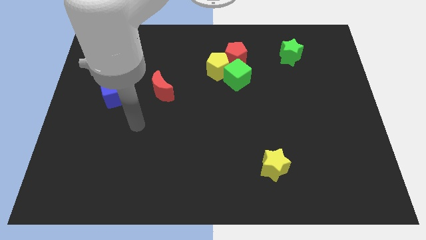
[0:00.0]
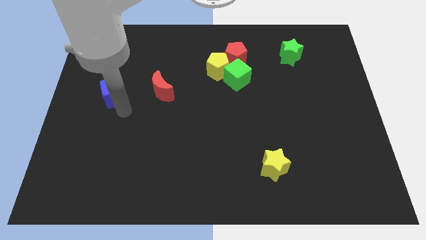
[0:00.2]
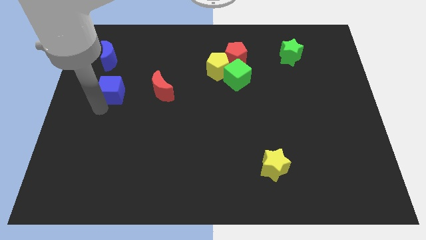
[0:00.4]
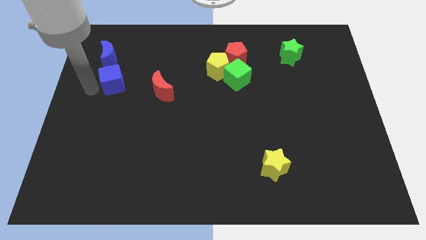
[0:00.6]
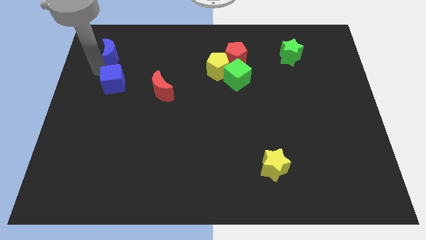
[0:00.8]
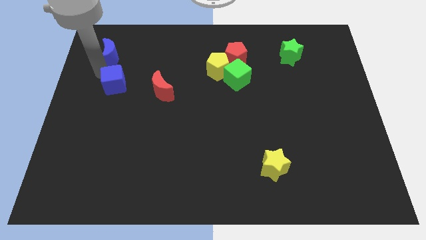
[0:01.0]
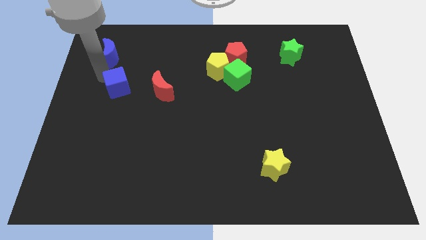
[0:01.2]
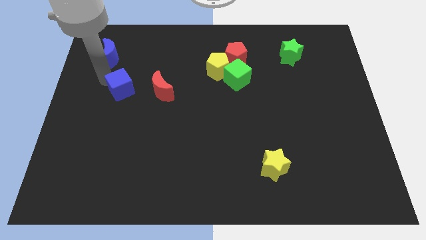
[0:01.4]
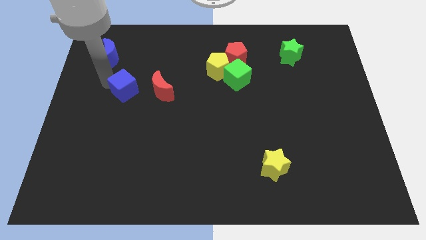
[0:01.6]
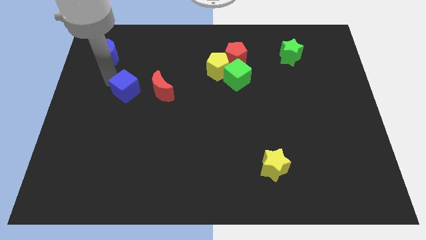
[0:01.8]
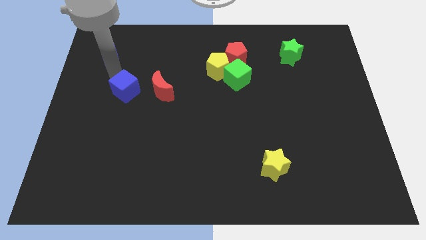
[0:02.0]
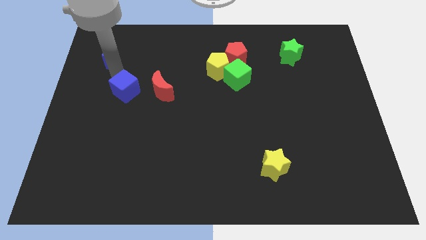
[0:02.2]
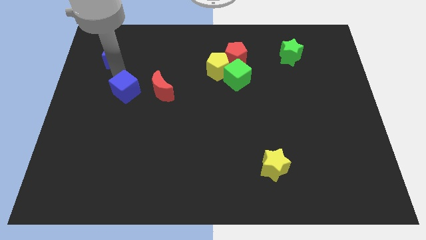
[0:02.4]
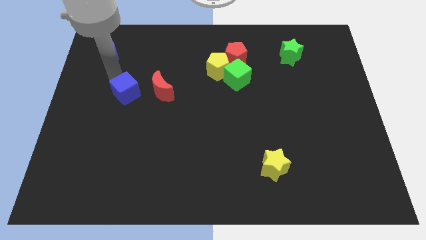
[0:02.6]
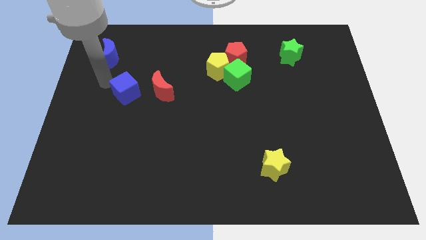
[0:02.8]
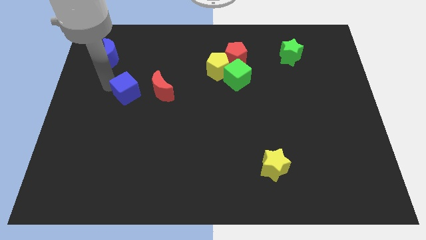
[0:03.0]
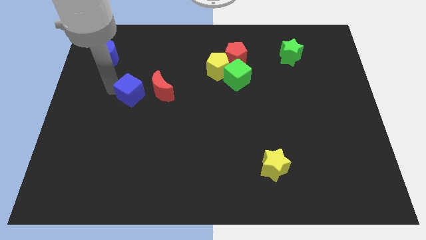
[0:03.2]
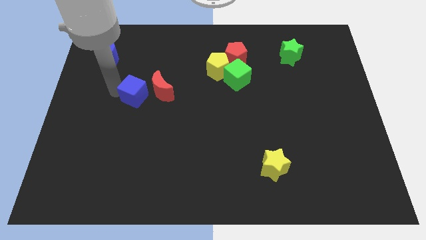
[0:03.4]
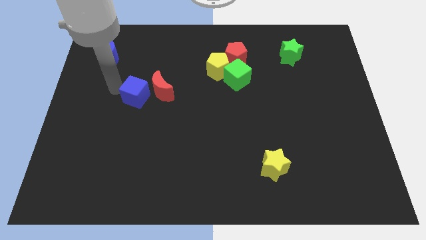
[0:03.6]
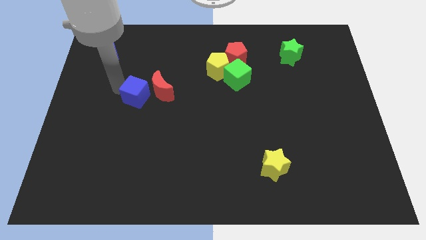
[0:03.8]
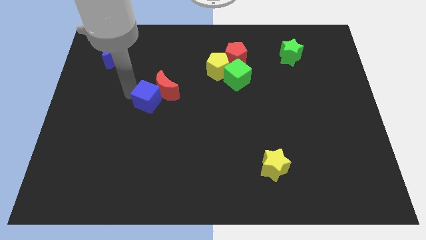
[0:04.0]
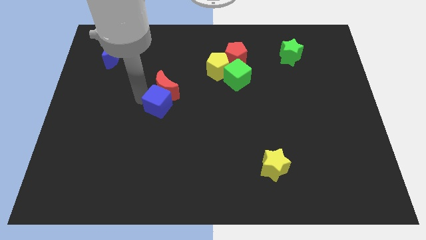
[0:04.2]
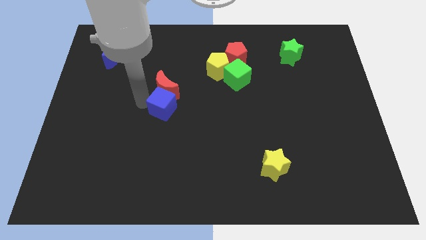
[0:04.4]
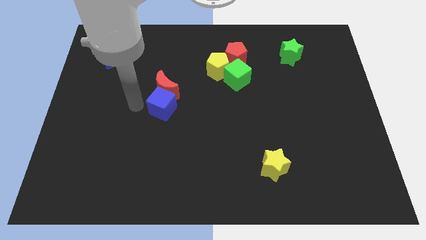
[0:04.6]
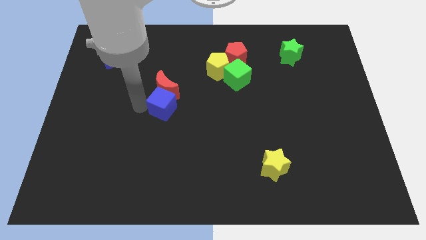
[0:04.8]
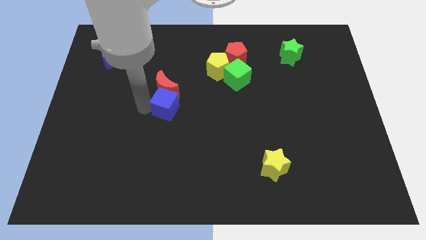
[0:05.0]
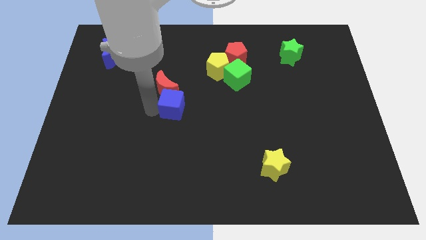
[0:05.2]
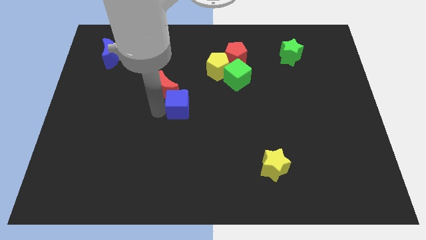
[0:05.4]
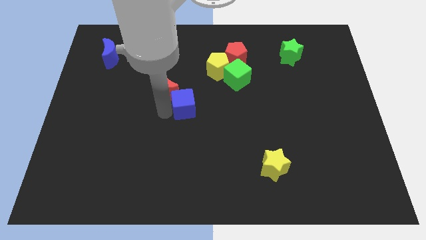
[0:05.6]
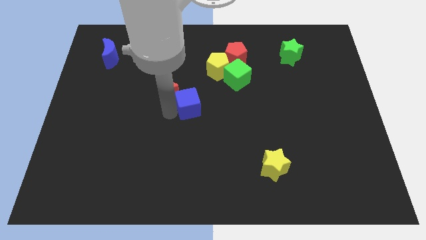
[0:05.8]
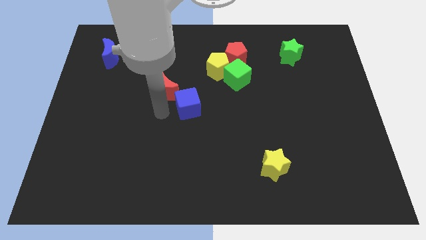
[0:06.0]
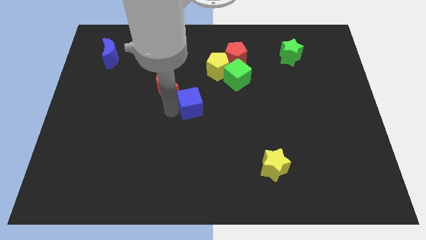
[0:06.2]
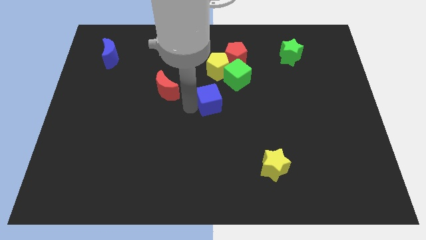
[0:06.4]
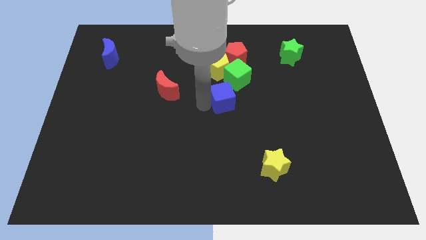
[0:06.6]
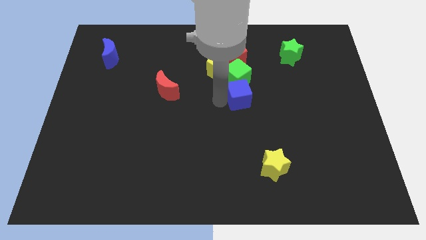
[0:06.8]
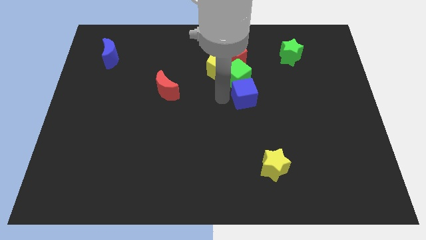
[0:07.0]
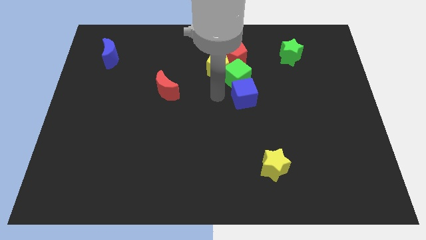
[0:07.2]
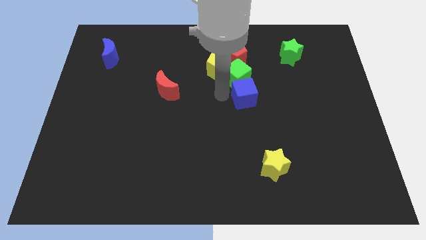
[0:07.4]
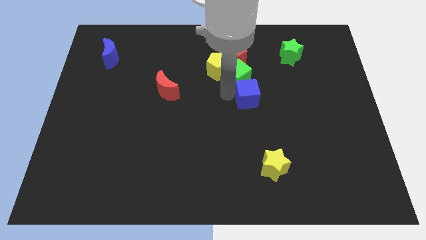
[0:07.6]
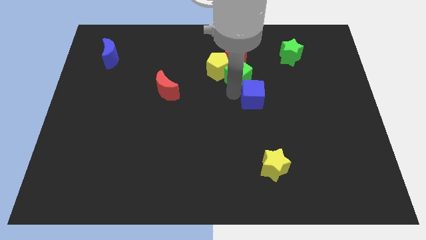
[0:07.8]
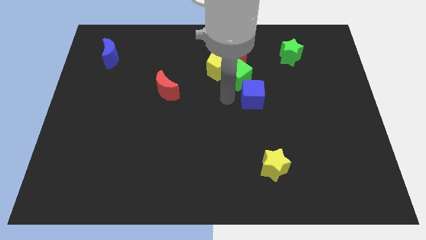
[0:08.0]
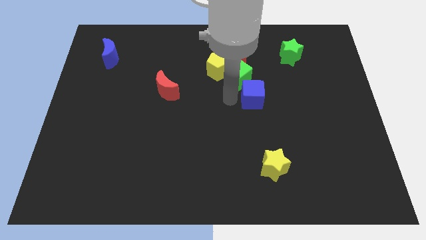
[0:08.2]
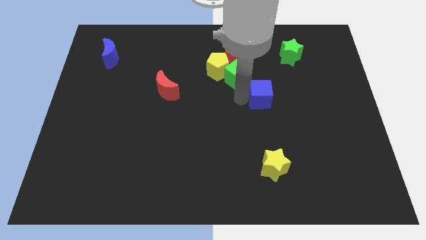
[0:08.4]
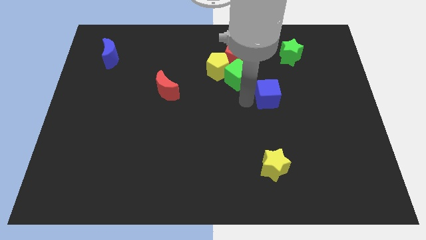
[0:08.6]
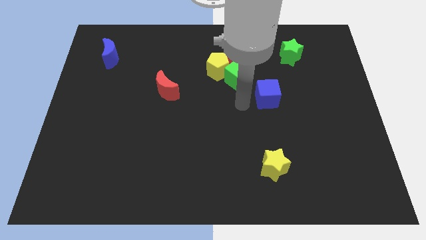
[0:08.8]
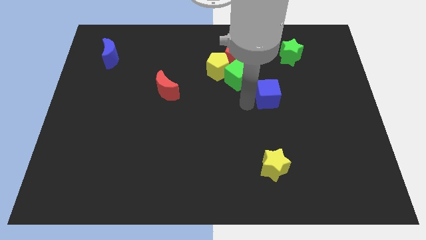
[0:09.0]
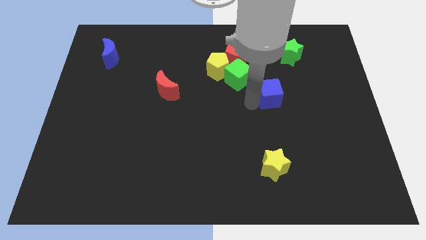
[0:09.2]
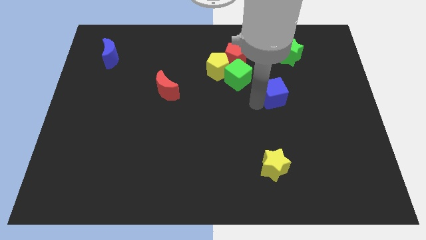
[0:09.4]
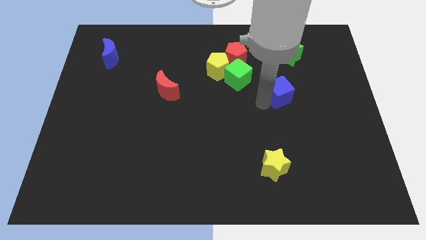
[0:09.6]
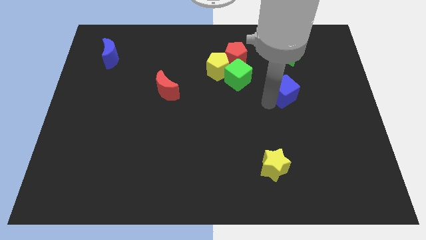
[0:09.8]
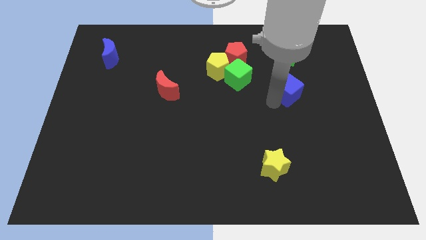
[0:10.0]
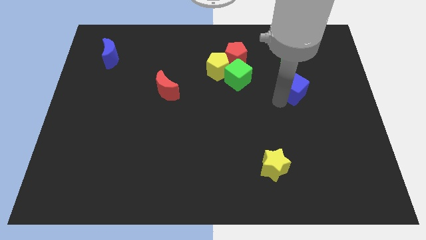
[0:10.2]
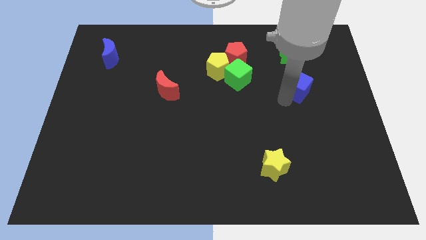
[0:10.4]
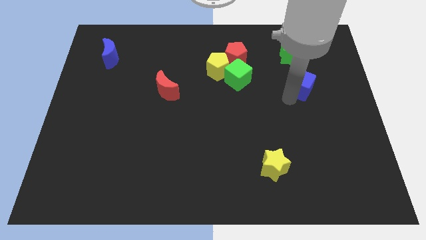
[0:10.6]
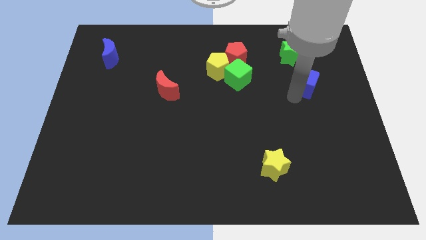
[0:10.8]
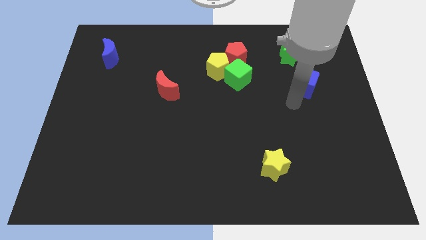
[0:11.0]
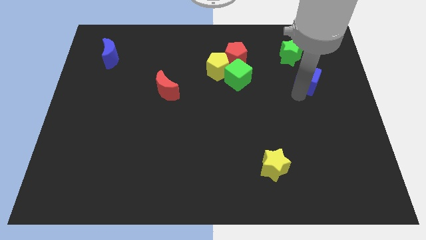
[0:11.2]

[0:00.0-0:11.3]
put the blue cube diagonally down and to the right of the green star

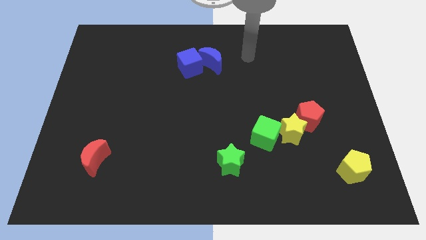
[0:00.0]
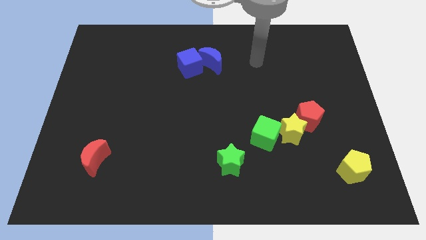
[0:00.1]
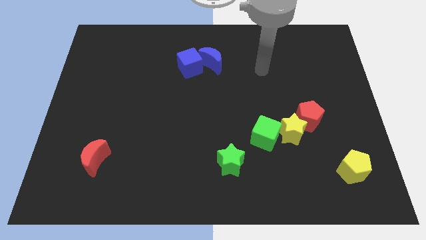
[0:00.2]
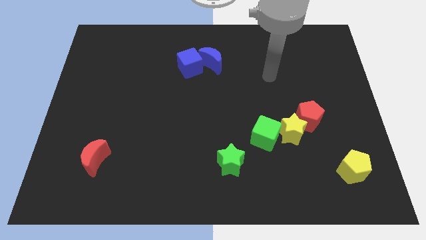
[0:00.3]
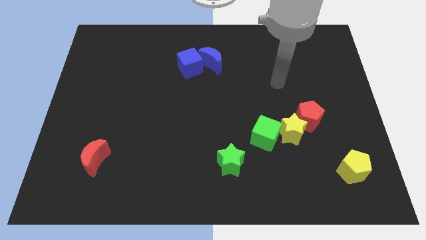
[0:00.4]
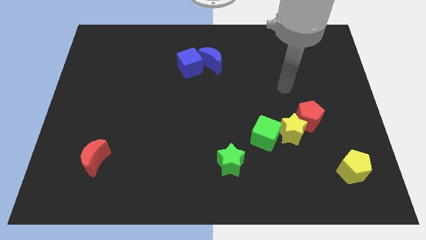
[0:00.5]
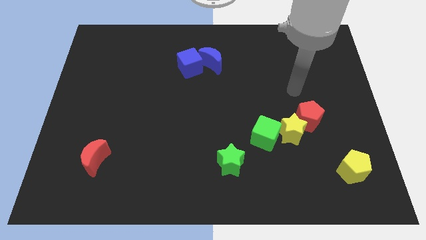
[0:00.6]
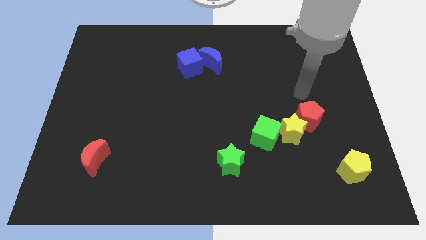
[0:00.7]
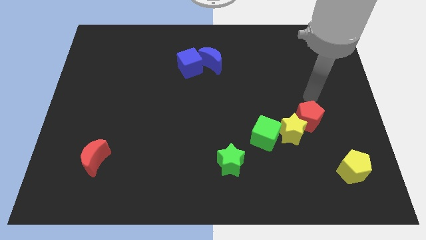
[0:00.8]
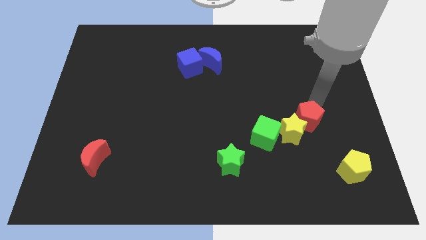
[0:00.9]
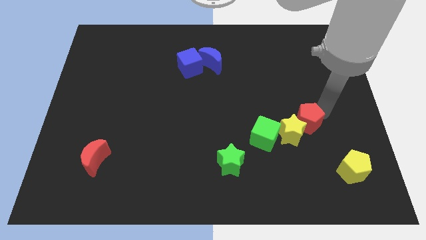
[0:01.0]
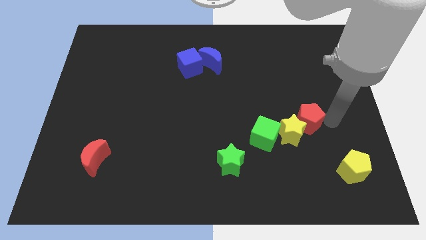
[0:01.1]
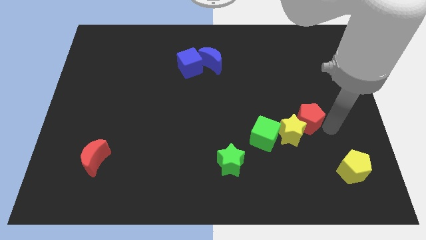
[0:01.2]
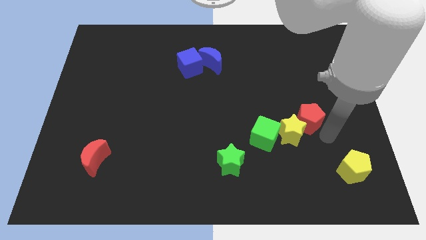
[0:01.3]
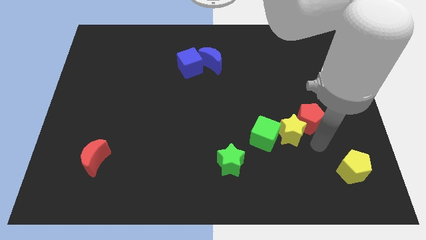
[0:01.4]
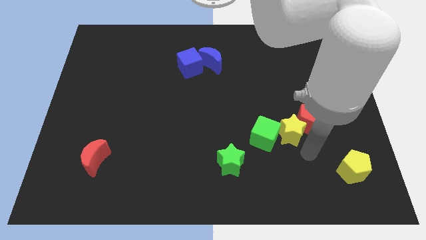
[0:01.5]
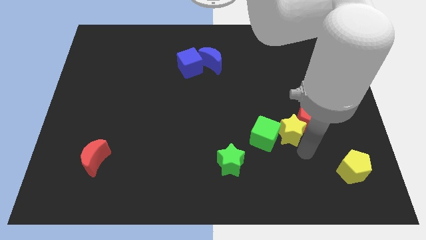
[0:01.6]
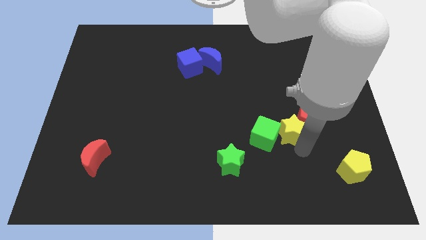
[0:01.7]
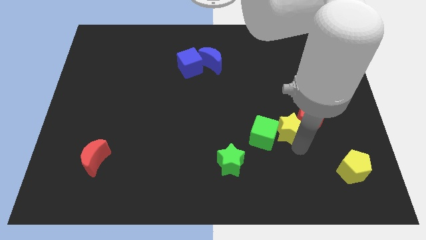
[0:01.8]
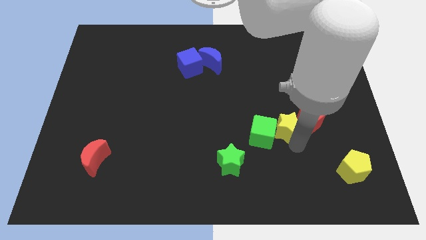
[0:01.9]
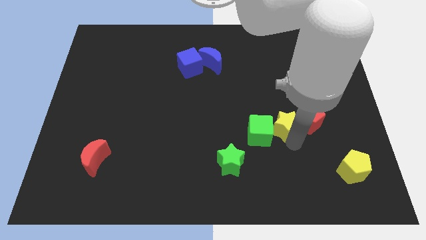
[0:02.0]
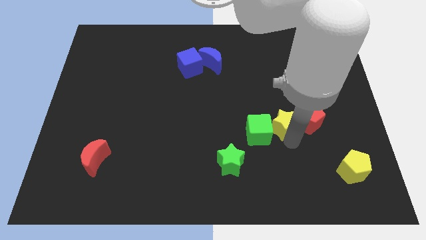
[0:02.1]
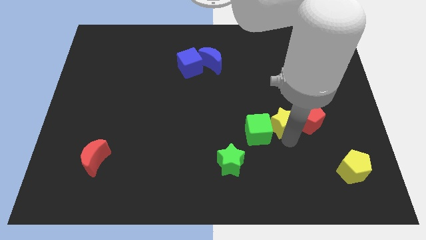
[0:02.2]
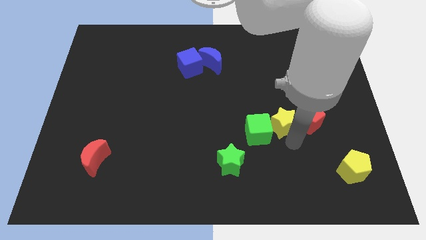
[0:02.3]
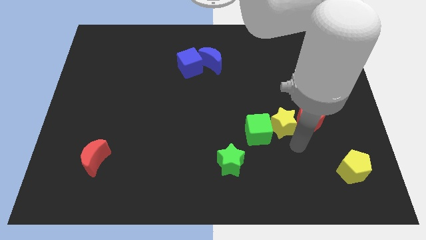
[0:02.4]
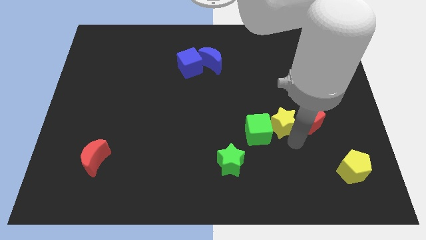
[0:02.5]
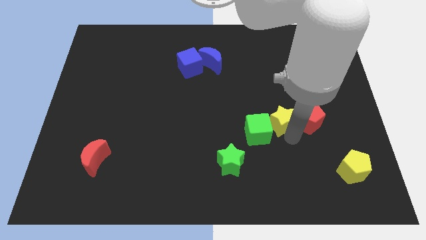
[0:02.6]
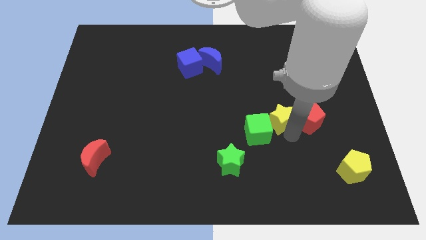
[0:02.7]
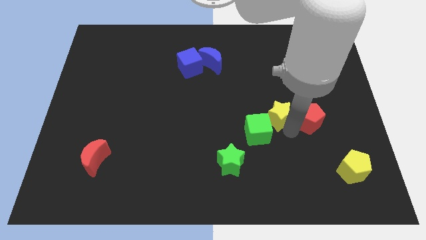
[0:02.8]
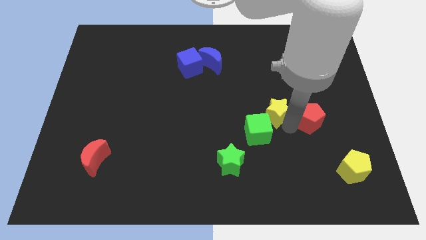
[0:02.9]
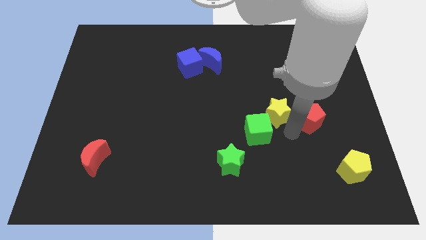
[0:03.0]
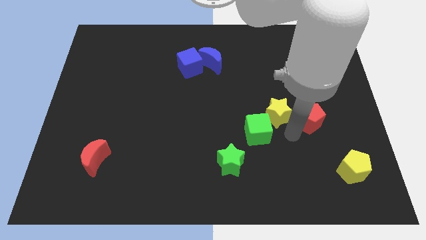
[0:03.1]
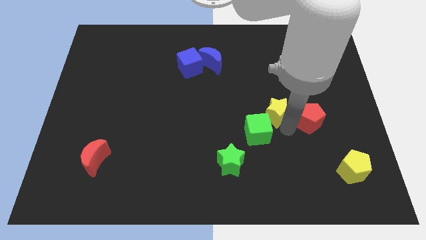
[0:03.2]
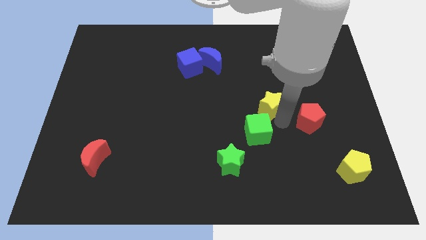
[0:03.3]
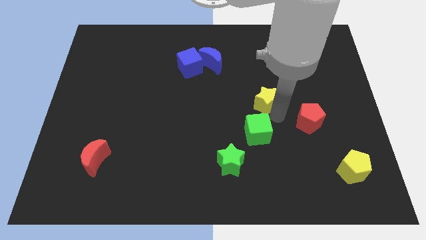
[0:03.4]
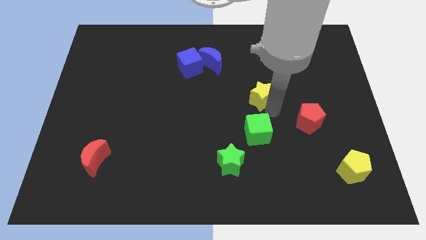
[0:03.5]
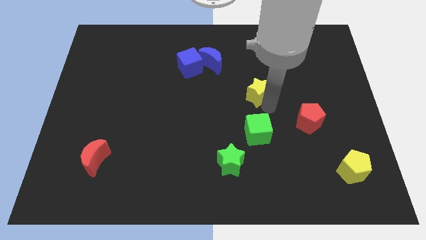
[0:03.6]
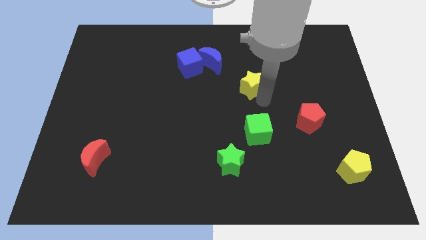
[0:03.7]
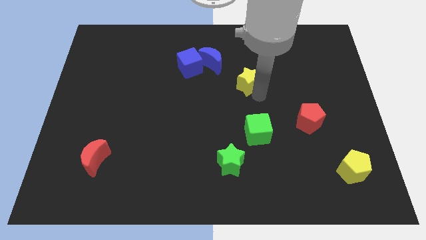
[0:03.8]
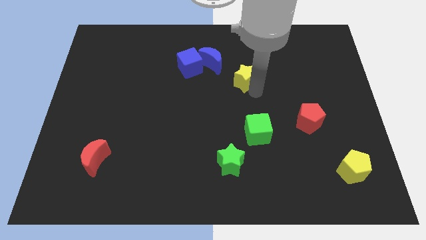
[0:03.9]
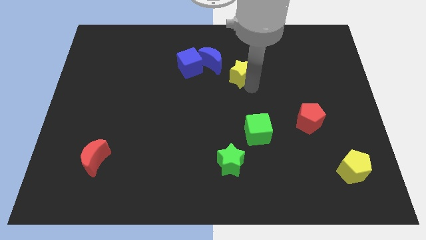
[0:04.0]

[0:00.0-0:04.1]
put the yellow star right of the blue cube
